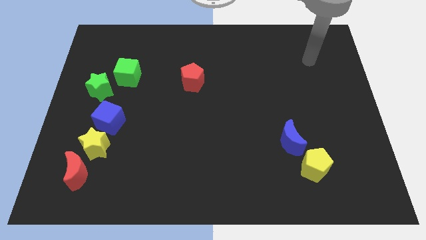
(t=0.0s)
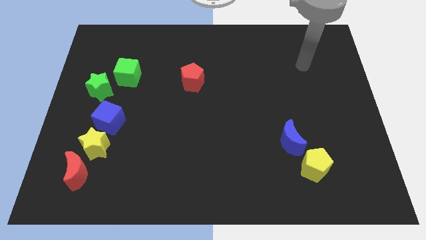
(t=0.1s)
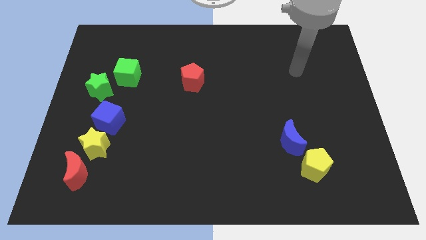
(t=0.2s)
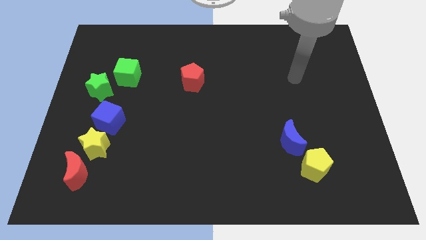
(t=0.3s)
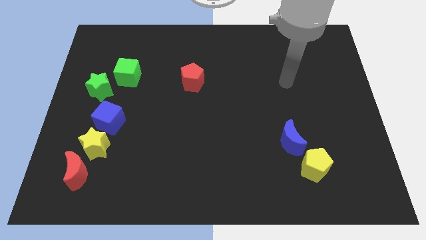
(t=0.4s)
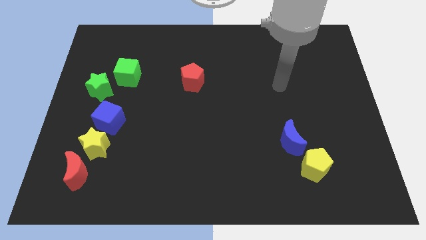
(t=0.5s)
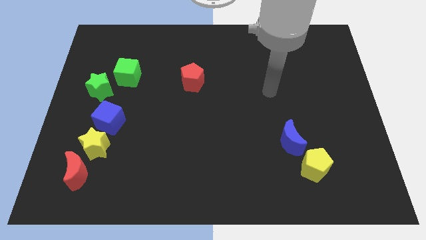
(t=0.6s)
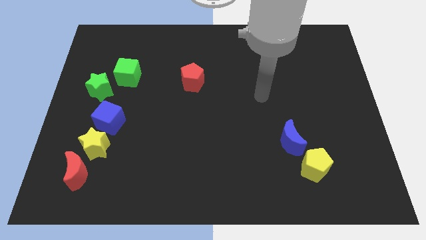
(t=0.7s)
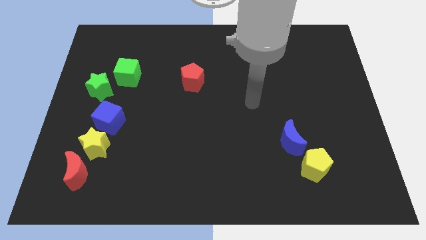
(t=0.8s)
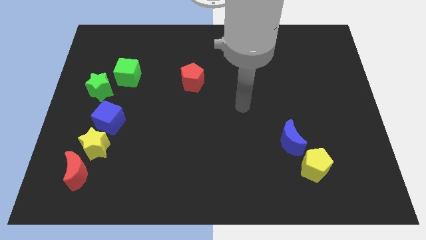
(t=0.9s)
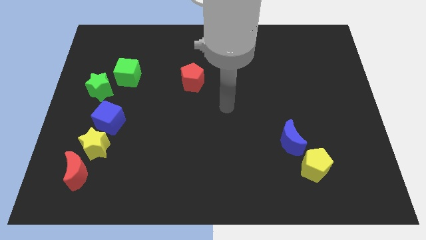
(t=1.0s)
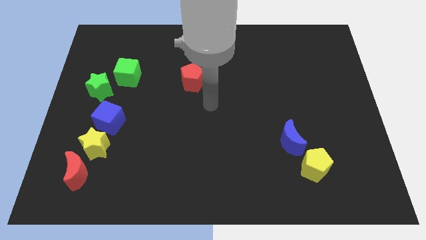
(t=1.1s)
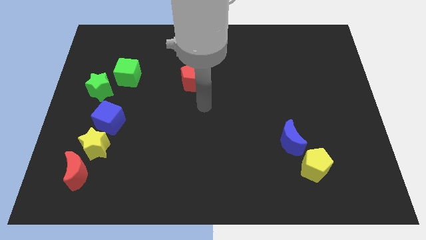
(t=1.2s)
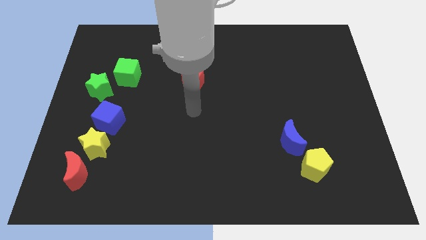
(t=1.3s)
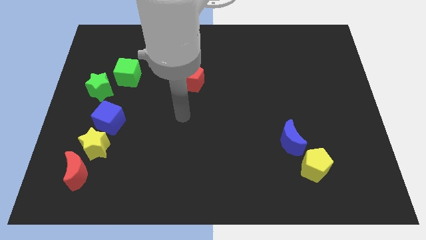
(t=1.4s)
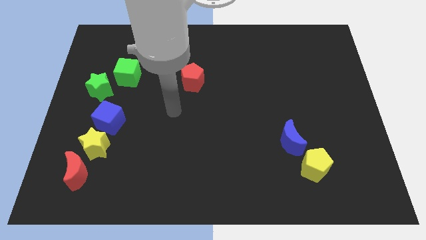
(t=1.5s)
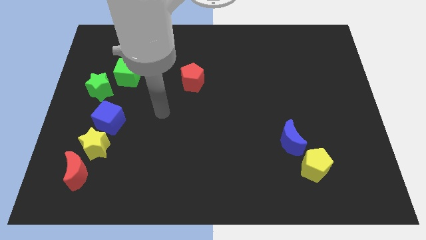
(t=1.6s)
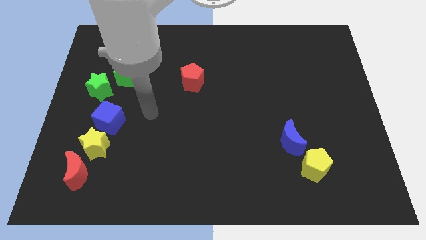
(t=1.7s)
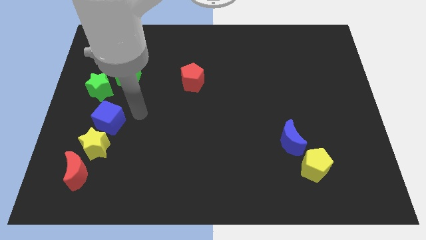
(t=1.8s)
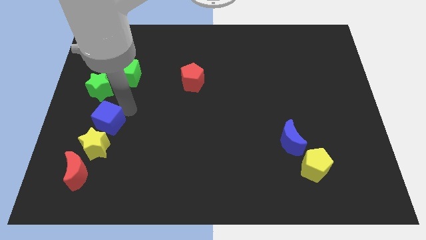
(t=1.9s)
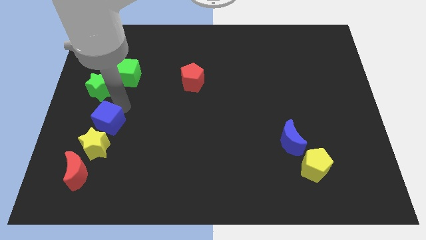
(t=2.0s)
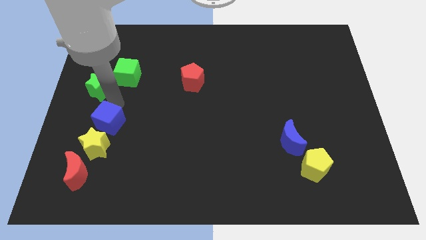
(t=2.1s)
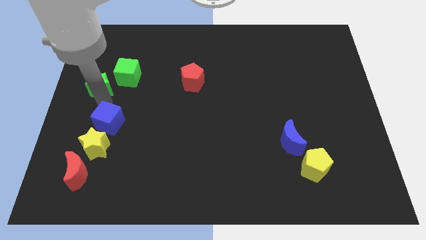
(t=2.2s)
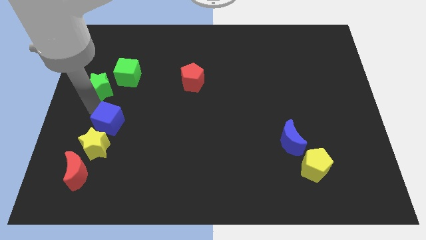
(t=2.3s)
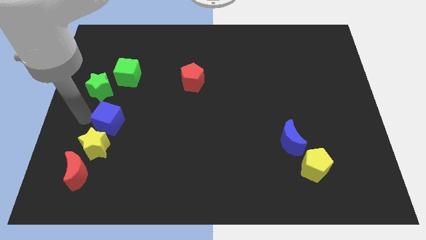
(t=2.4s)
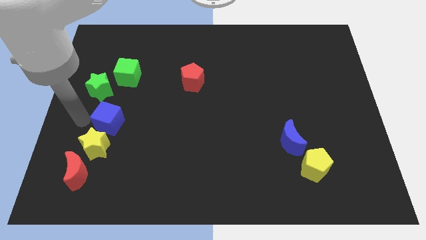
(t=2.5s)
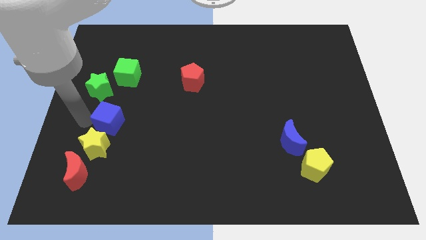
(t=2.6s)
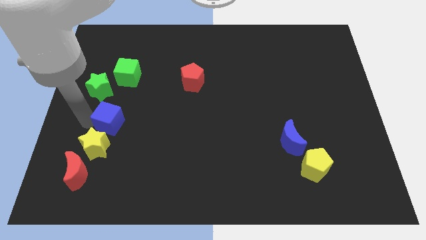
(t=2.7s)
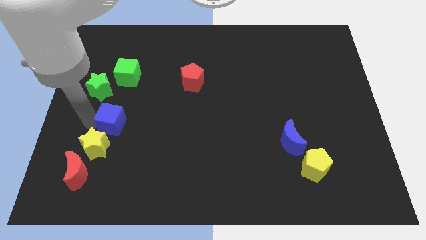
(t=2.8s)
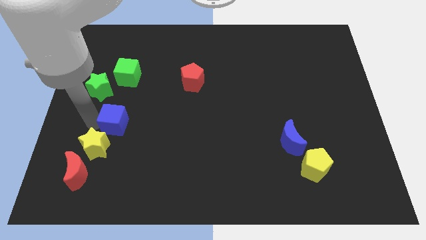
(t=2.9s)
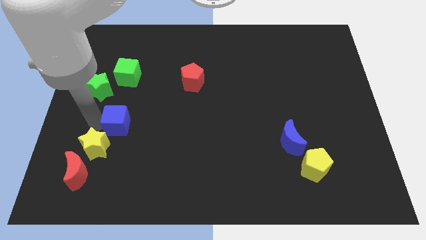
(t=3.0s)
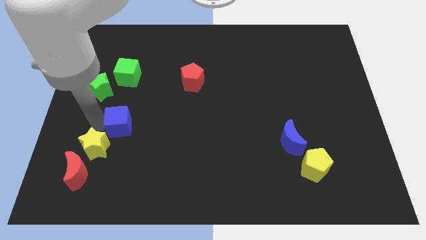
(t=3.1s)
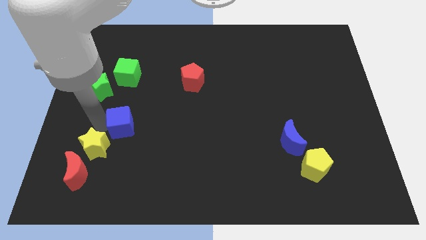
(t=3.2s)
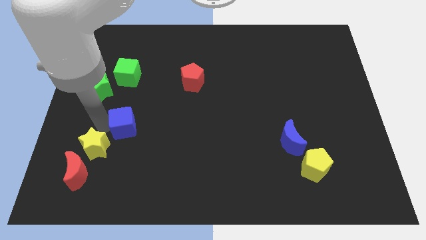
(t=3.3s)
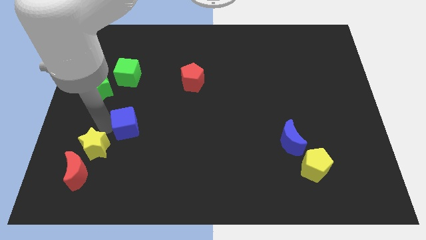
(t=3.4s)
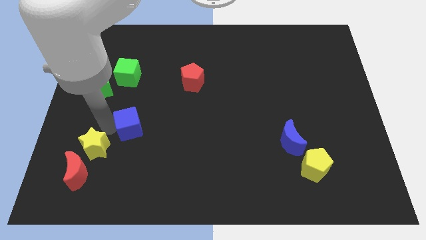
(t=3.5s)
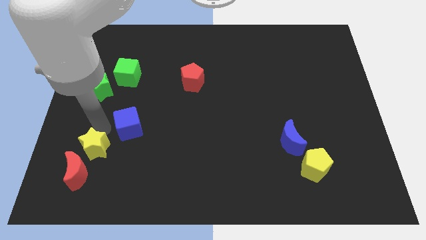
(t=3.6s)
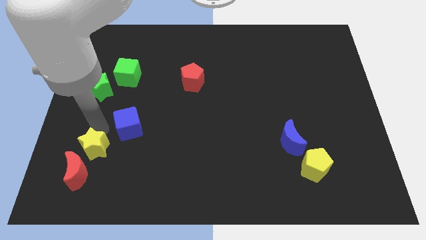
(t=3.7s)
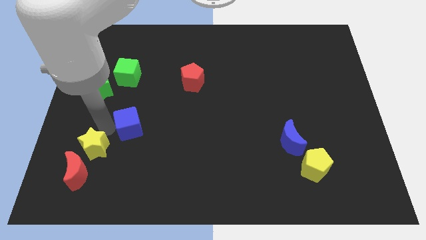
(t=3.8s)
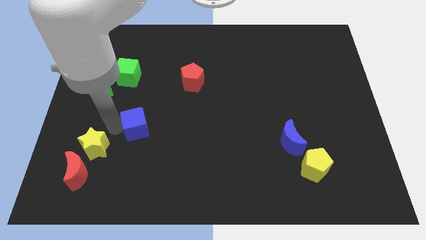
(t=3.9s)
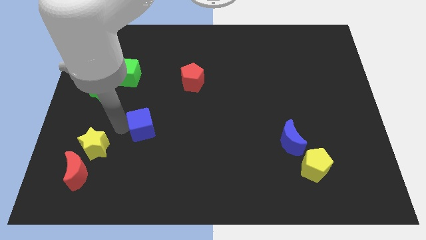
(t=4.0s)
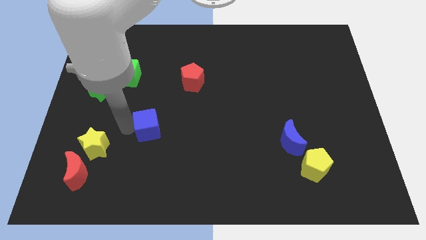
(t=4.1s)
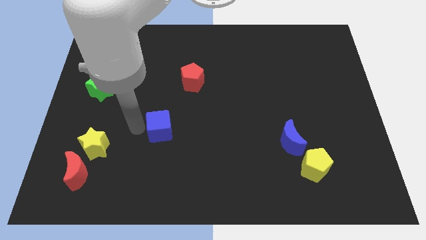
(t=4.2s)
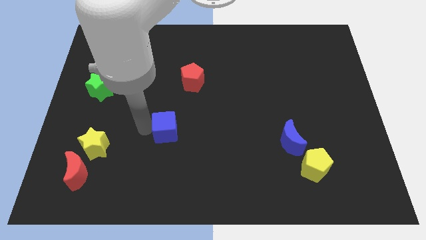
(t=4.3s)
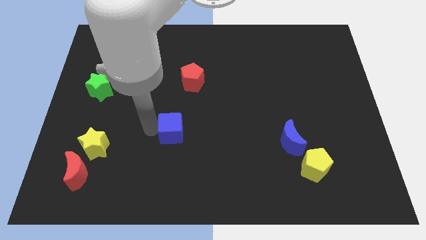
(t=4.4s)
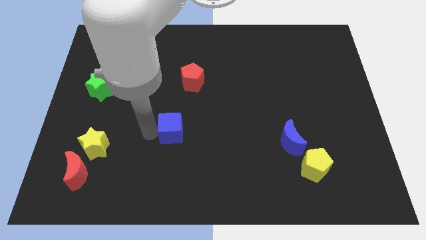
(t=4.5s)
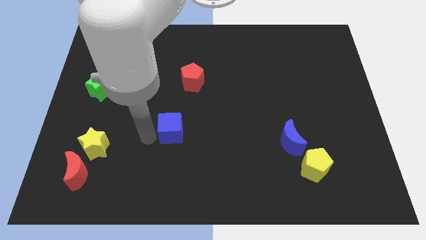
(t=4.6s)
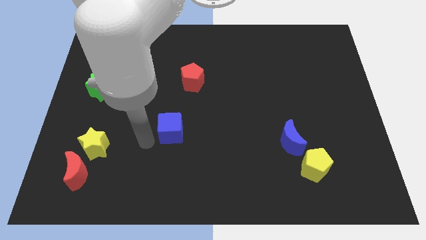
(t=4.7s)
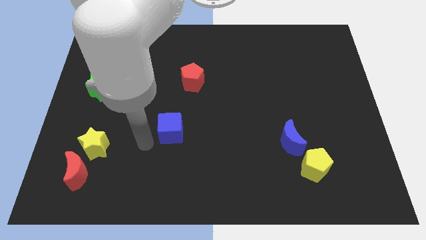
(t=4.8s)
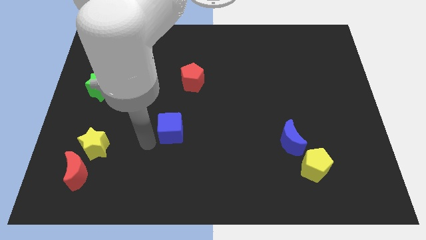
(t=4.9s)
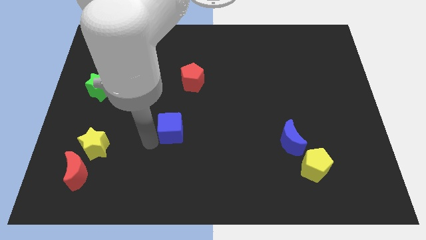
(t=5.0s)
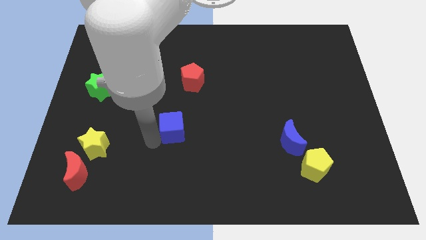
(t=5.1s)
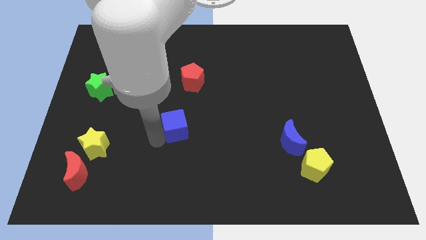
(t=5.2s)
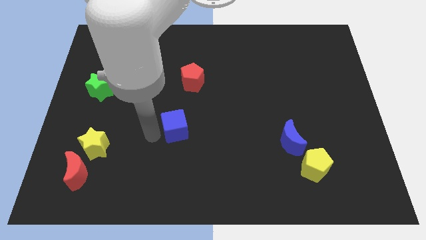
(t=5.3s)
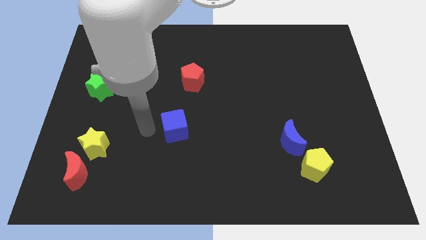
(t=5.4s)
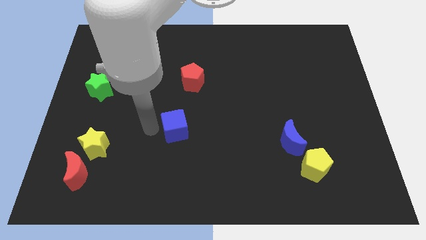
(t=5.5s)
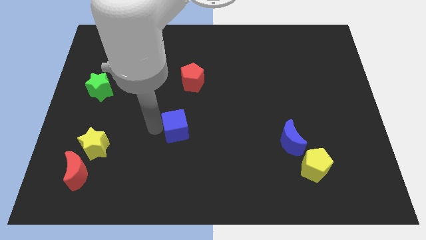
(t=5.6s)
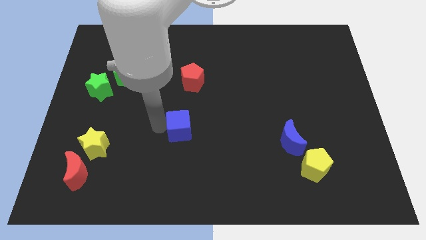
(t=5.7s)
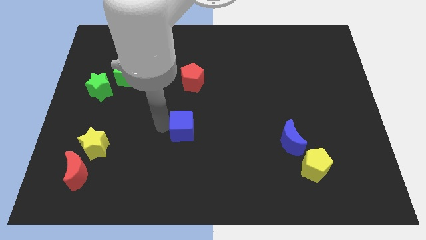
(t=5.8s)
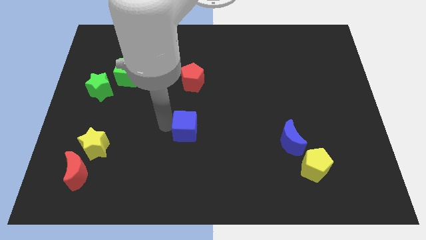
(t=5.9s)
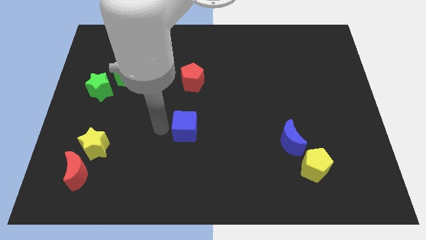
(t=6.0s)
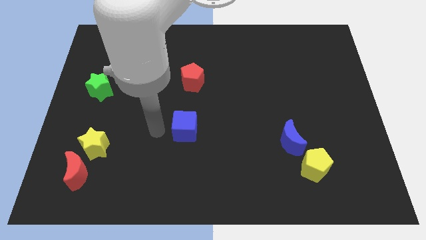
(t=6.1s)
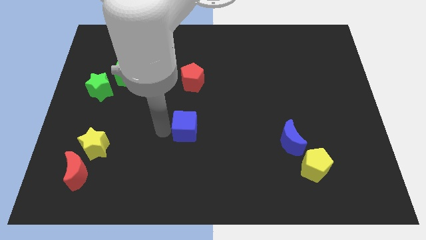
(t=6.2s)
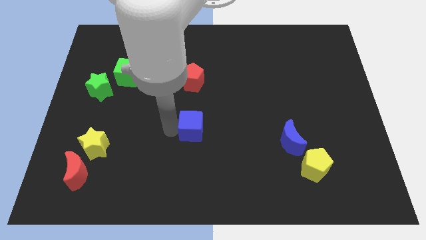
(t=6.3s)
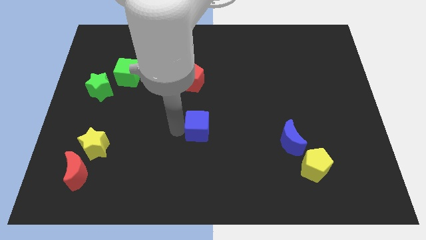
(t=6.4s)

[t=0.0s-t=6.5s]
slide the blue cube to the right

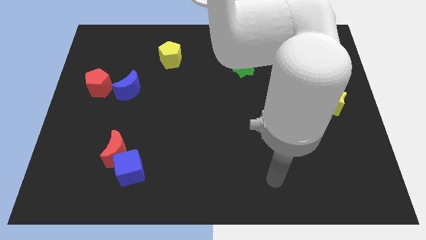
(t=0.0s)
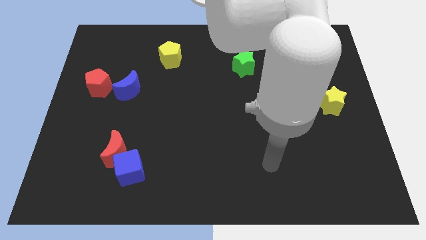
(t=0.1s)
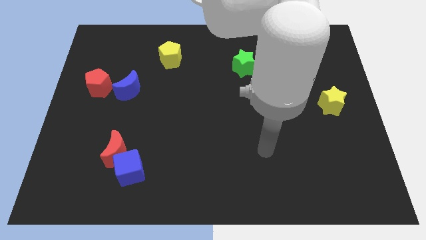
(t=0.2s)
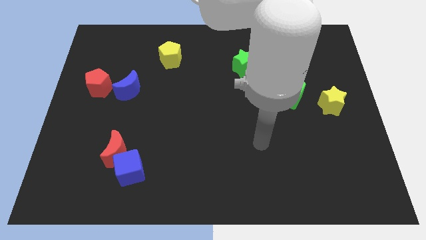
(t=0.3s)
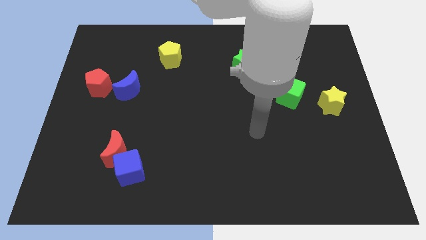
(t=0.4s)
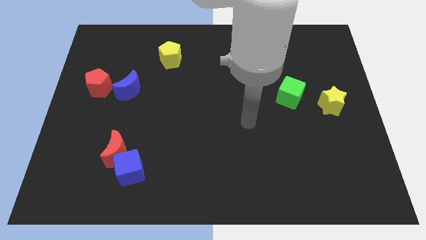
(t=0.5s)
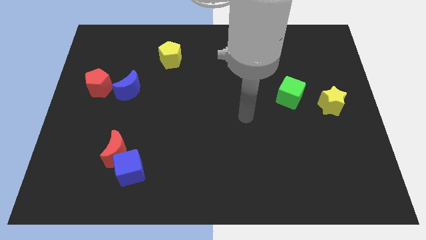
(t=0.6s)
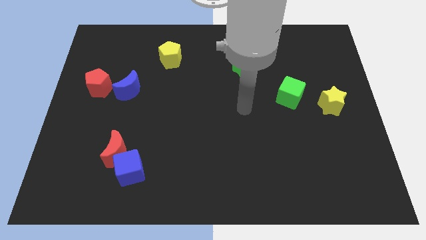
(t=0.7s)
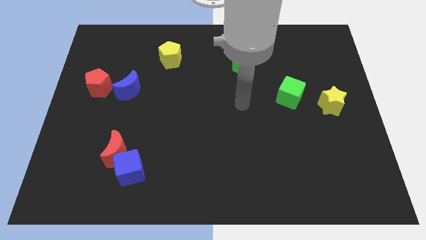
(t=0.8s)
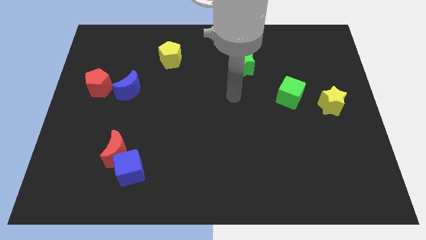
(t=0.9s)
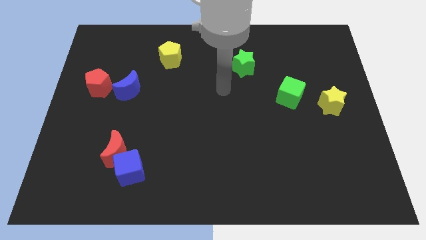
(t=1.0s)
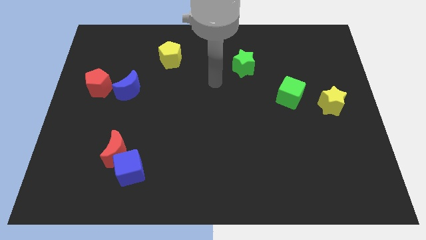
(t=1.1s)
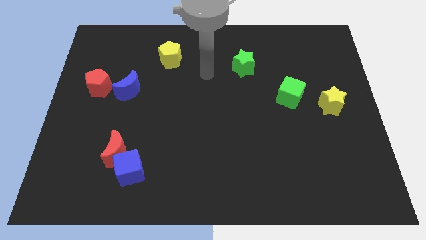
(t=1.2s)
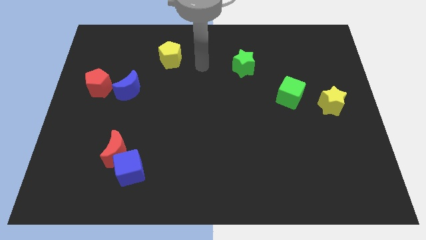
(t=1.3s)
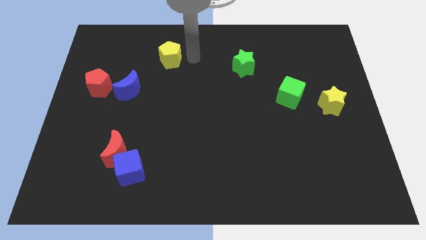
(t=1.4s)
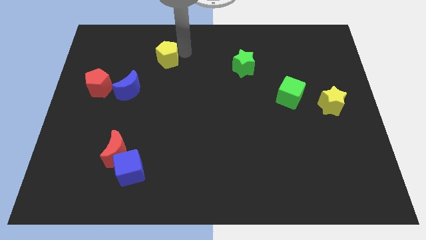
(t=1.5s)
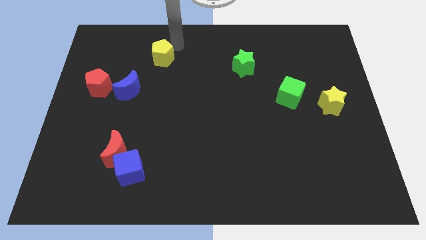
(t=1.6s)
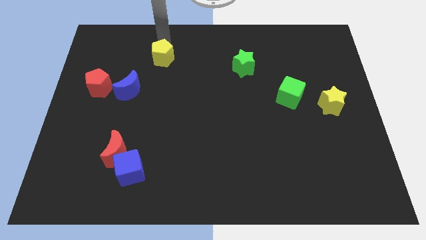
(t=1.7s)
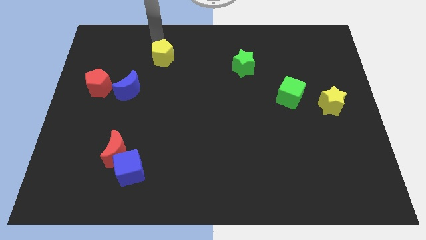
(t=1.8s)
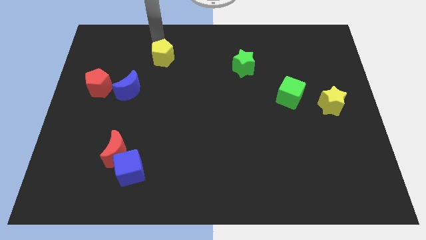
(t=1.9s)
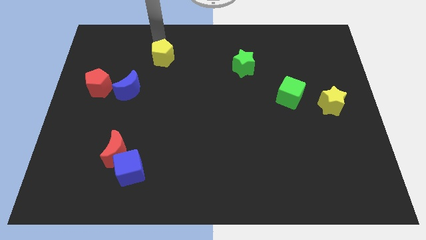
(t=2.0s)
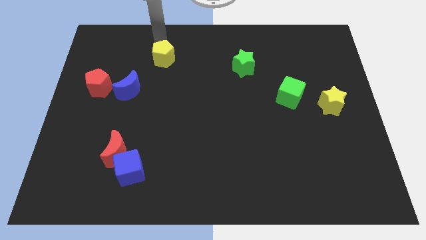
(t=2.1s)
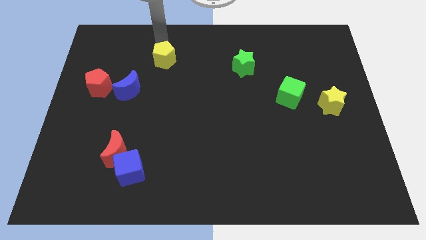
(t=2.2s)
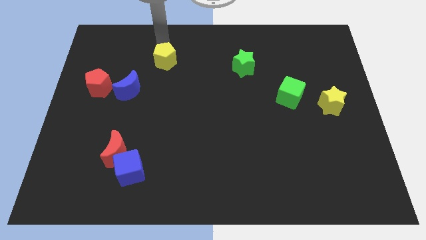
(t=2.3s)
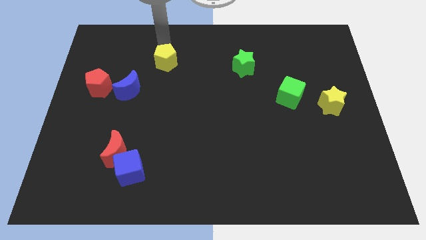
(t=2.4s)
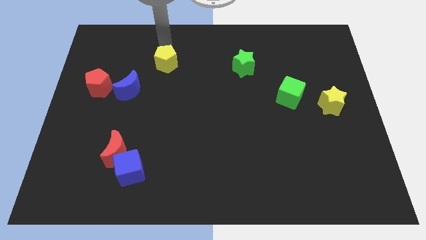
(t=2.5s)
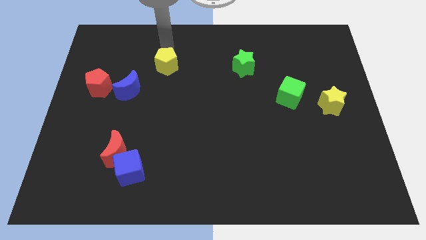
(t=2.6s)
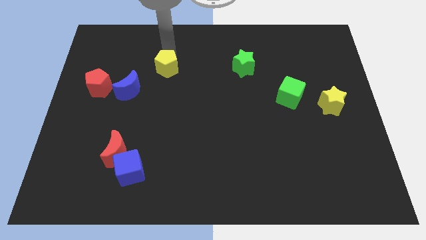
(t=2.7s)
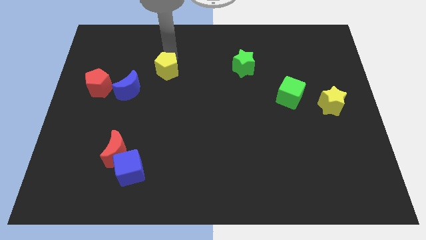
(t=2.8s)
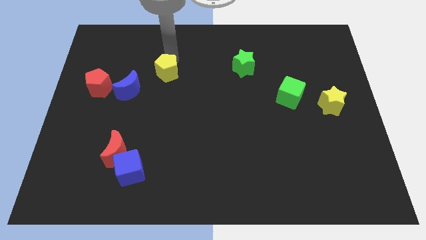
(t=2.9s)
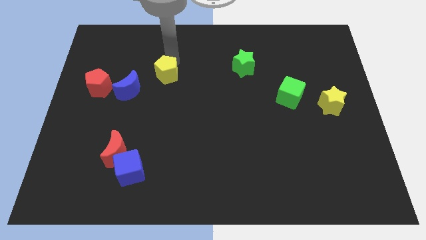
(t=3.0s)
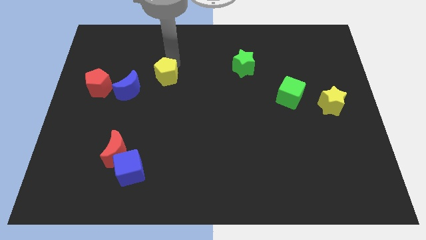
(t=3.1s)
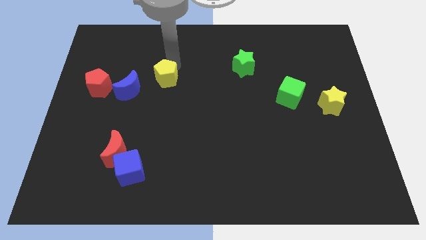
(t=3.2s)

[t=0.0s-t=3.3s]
slide the yellow pentagon downwards slightly
